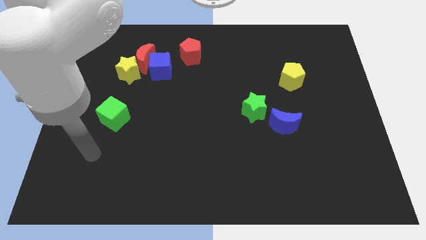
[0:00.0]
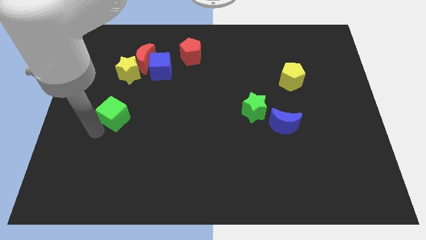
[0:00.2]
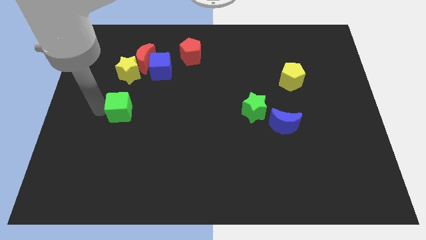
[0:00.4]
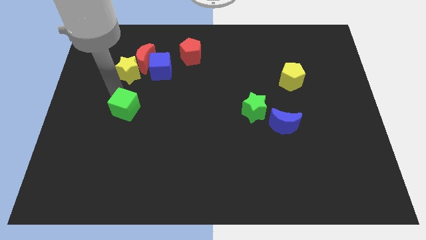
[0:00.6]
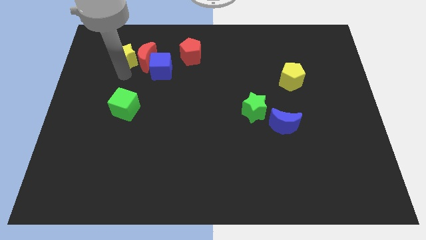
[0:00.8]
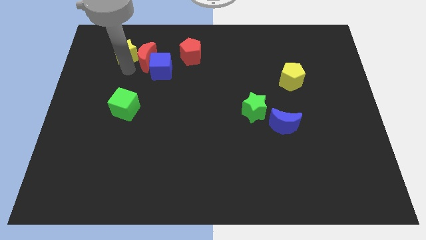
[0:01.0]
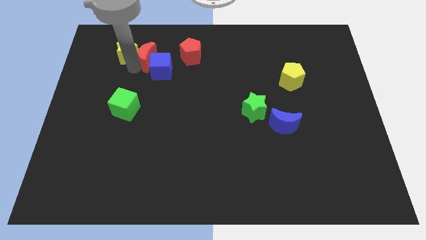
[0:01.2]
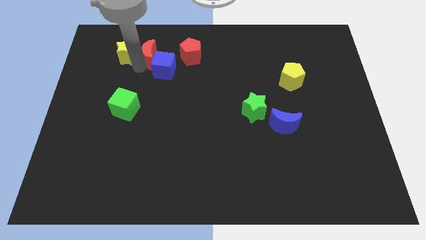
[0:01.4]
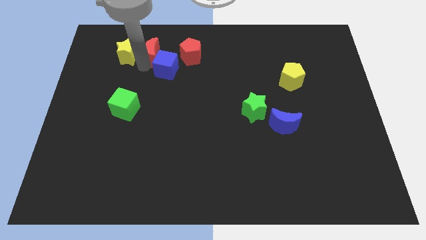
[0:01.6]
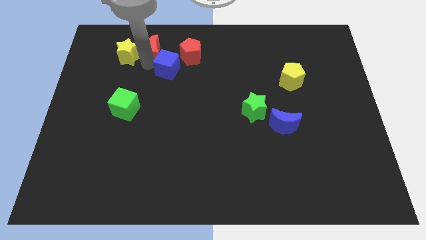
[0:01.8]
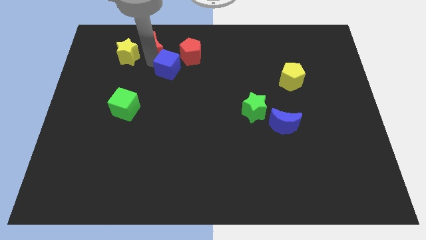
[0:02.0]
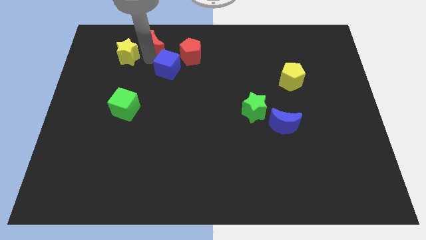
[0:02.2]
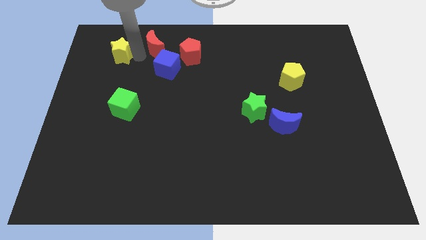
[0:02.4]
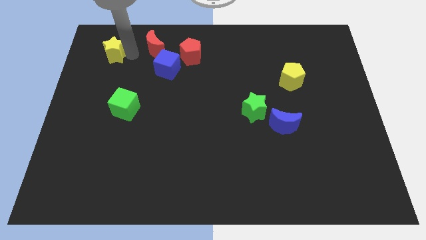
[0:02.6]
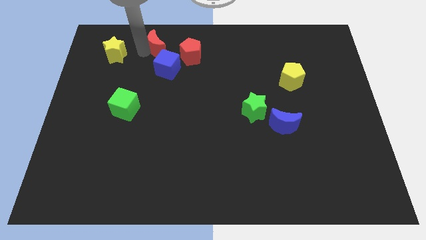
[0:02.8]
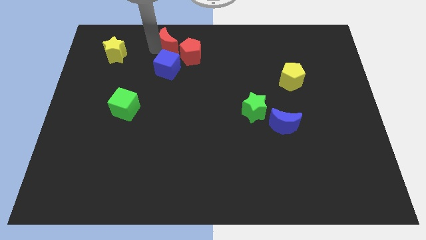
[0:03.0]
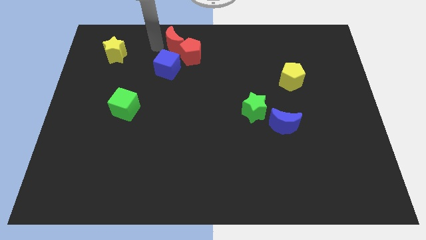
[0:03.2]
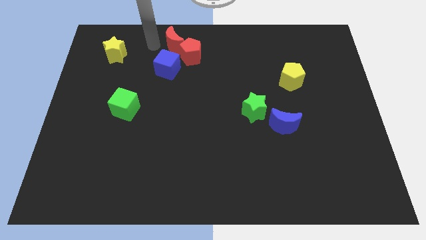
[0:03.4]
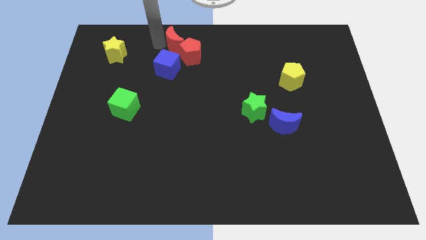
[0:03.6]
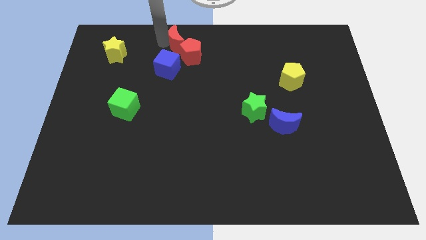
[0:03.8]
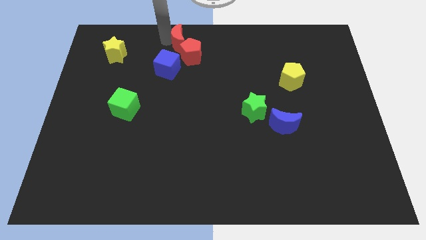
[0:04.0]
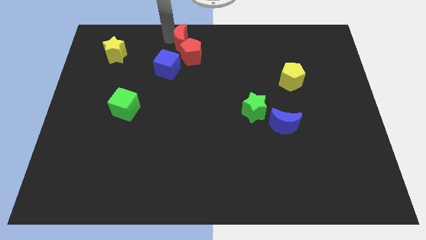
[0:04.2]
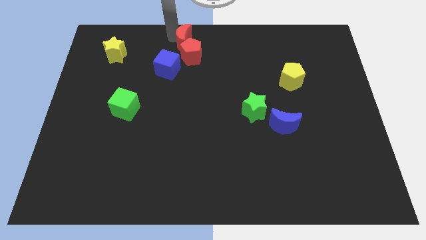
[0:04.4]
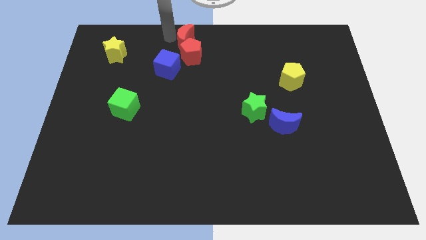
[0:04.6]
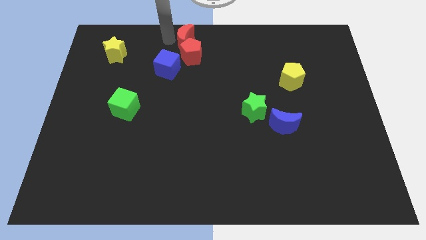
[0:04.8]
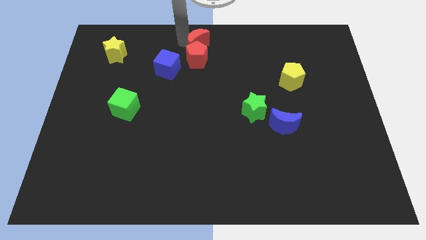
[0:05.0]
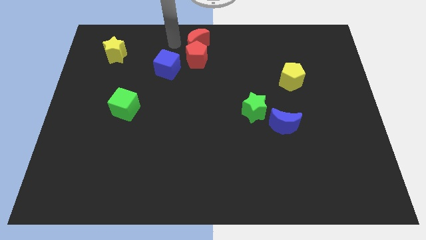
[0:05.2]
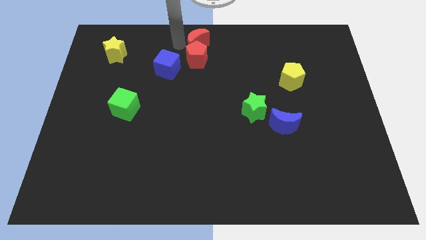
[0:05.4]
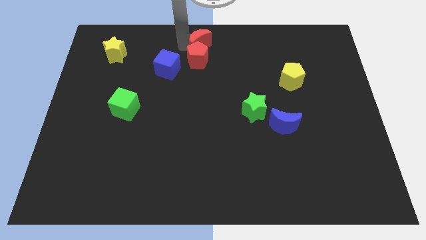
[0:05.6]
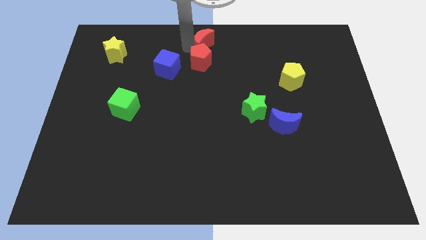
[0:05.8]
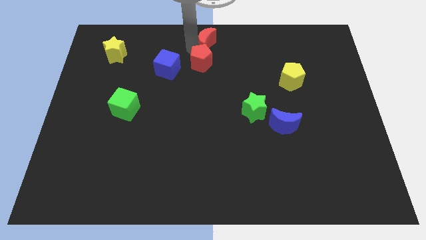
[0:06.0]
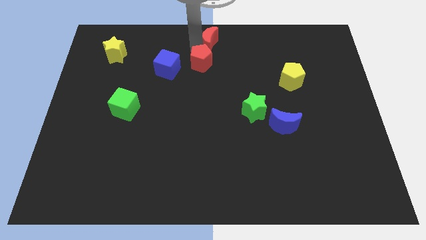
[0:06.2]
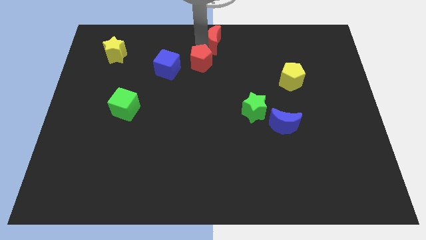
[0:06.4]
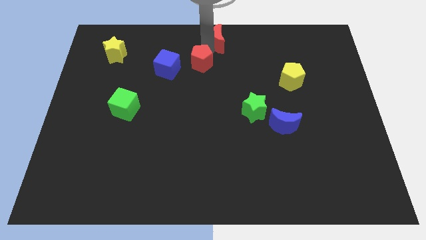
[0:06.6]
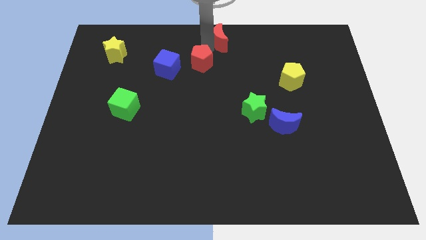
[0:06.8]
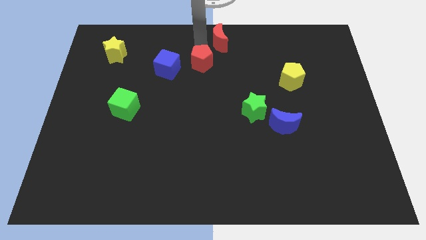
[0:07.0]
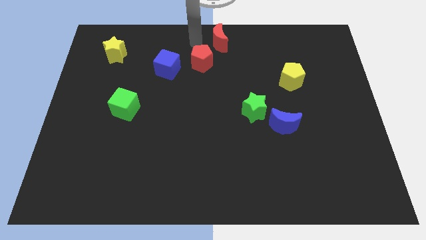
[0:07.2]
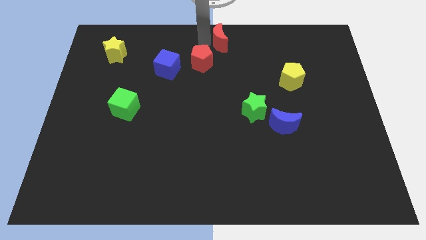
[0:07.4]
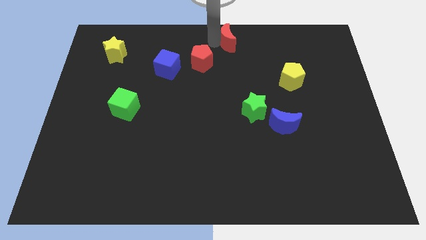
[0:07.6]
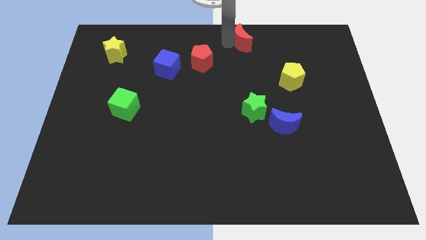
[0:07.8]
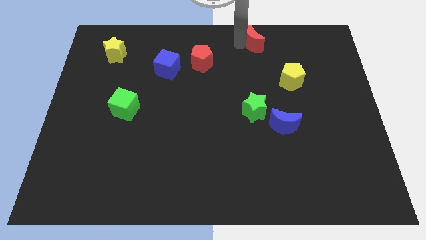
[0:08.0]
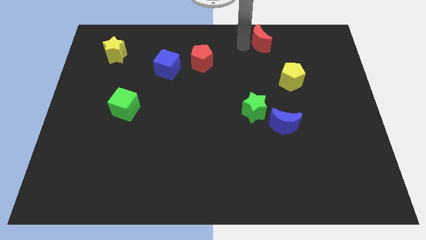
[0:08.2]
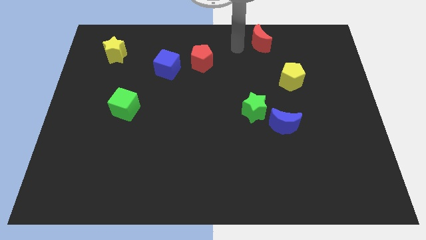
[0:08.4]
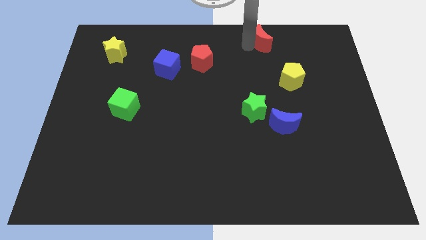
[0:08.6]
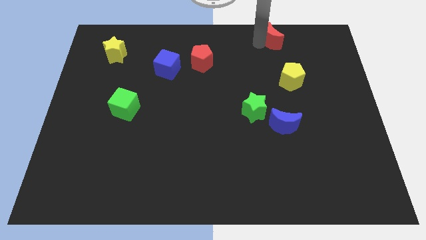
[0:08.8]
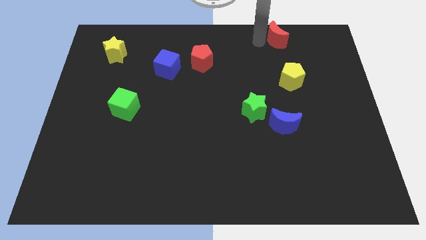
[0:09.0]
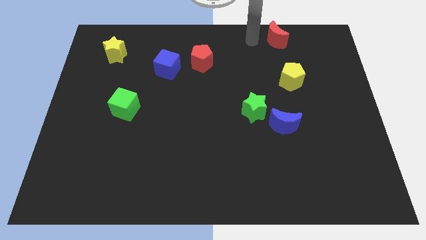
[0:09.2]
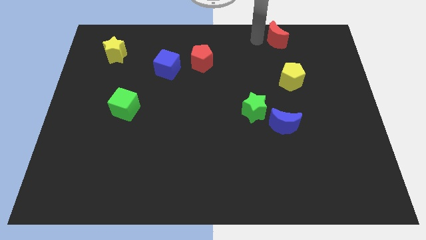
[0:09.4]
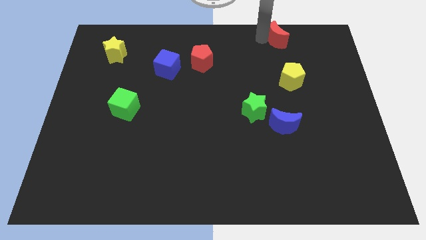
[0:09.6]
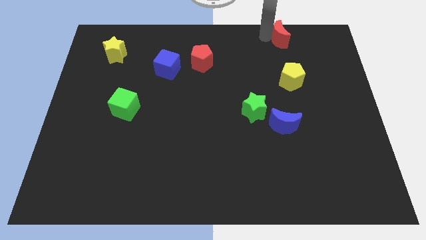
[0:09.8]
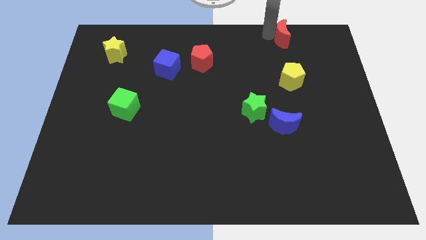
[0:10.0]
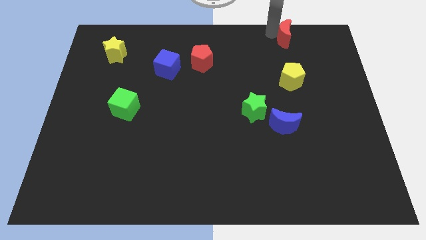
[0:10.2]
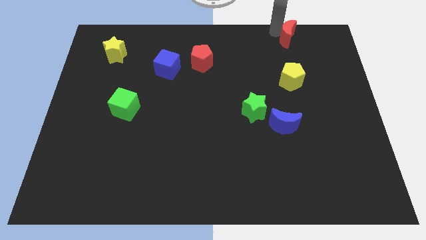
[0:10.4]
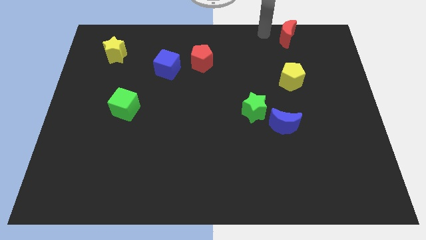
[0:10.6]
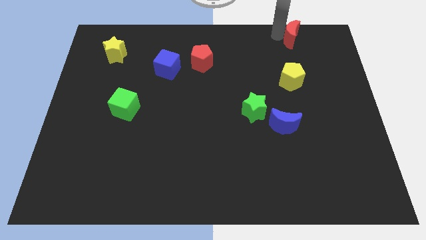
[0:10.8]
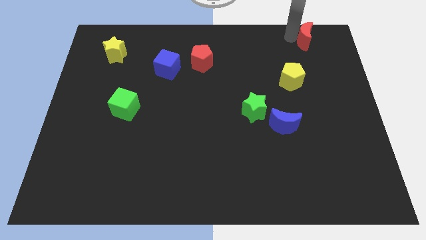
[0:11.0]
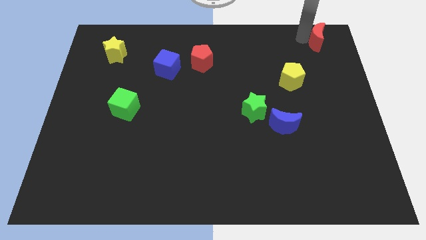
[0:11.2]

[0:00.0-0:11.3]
put the red moon to the top right of the board
